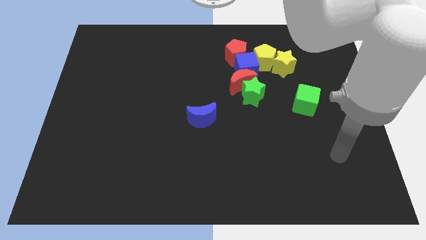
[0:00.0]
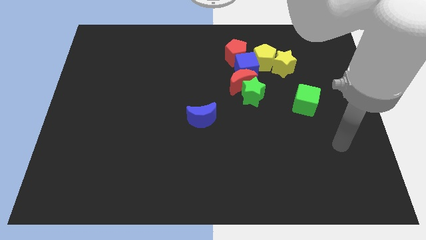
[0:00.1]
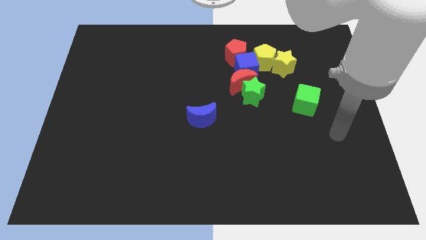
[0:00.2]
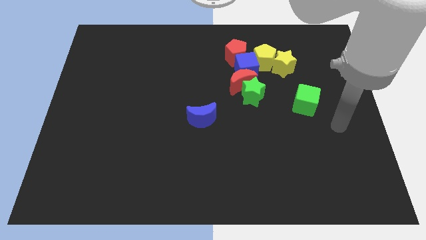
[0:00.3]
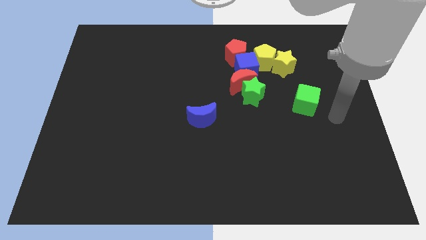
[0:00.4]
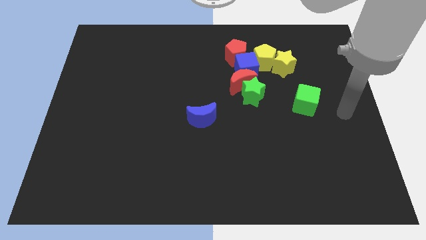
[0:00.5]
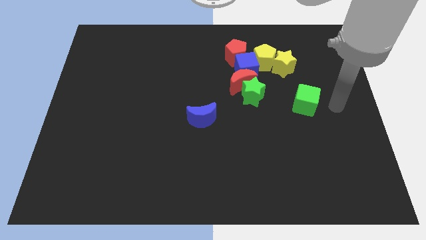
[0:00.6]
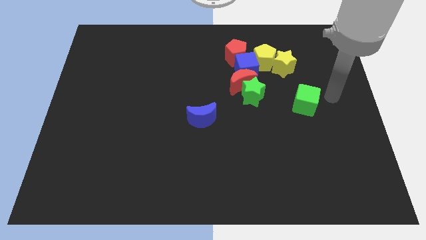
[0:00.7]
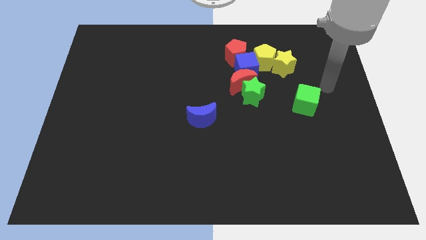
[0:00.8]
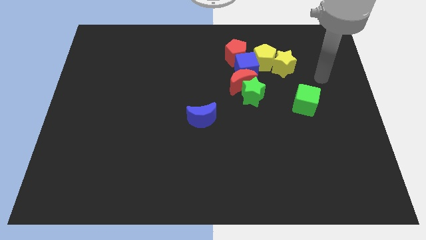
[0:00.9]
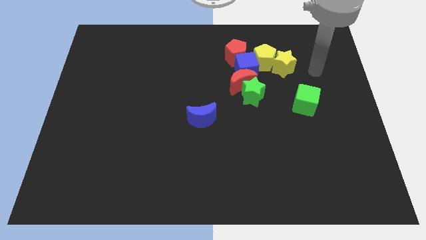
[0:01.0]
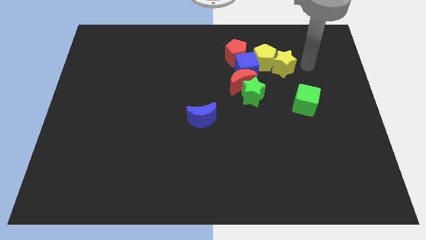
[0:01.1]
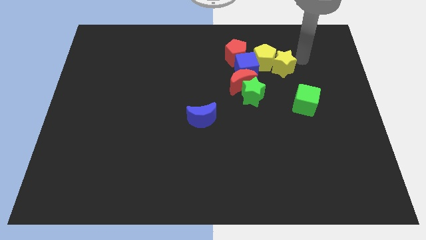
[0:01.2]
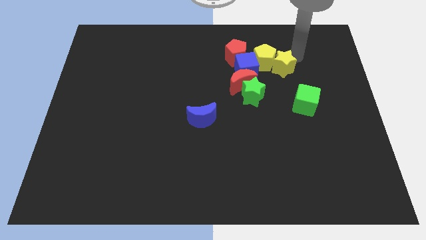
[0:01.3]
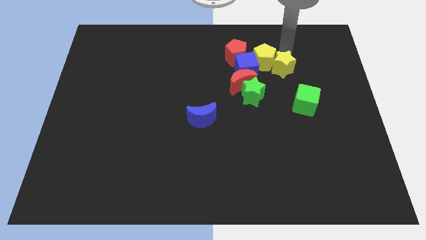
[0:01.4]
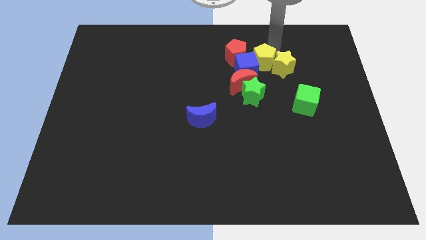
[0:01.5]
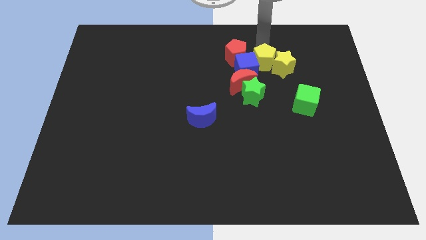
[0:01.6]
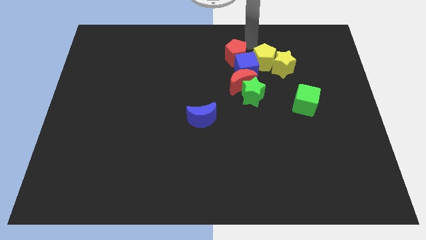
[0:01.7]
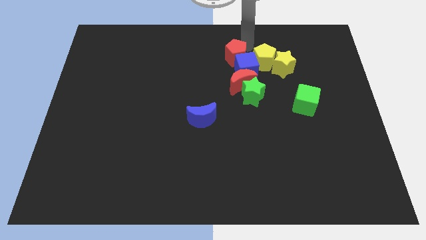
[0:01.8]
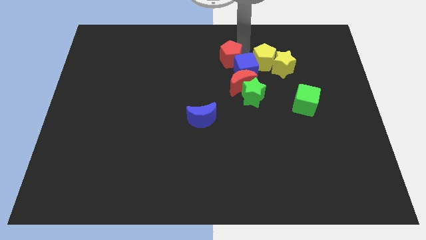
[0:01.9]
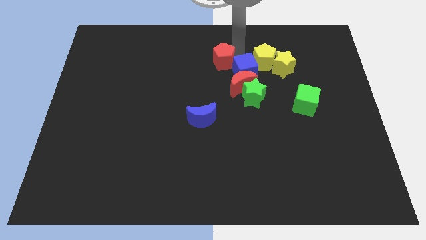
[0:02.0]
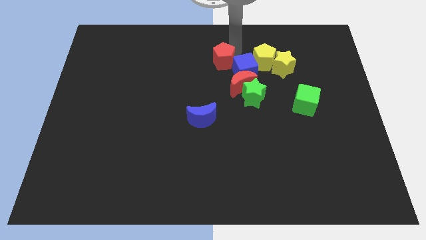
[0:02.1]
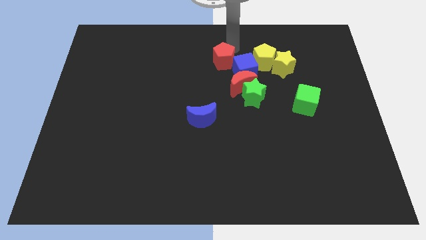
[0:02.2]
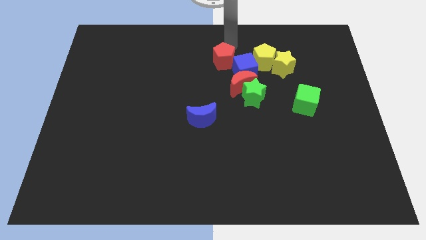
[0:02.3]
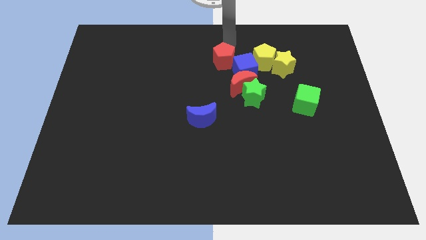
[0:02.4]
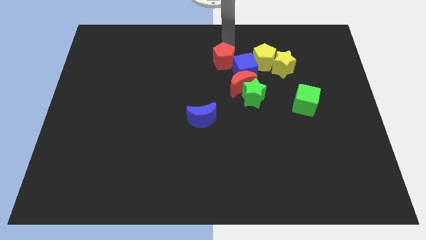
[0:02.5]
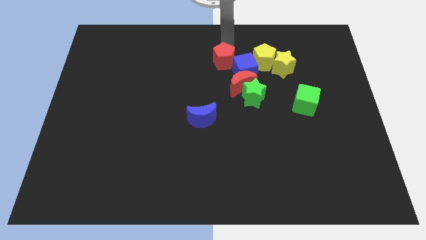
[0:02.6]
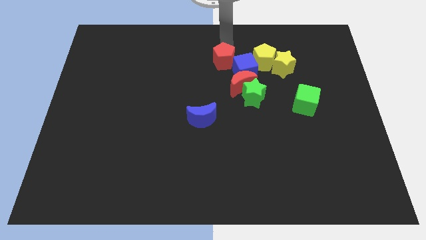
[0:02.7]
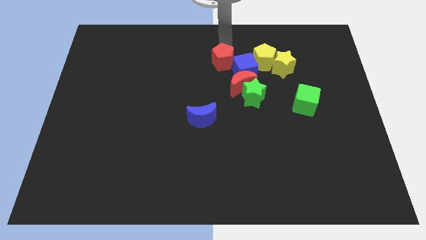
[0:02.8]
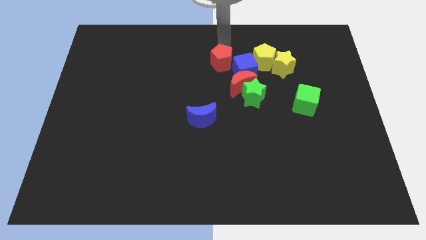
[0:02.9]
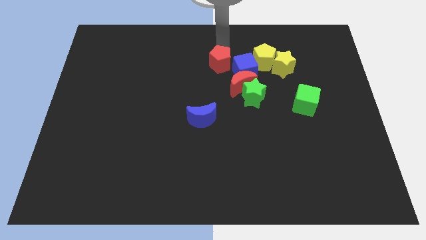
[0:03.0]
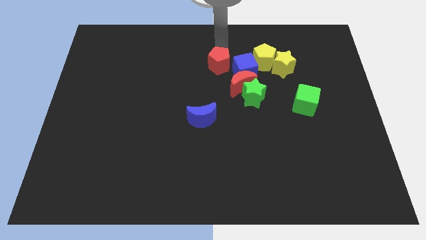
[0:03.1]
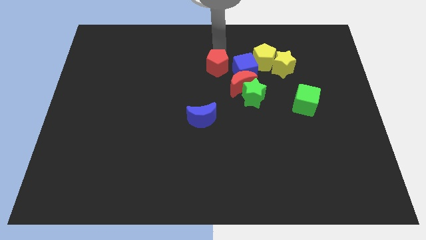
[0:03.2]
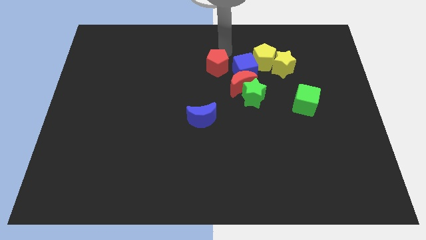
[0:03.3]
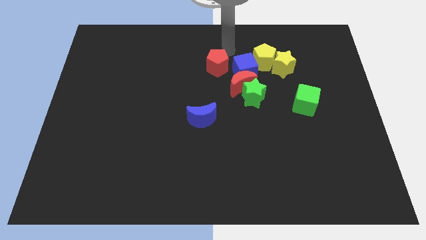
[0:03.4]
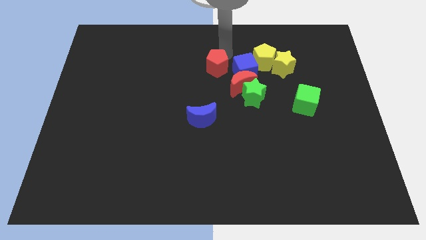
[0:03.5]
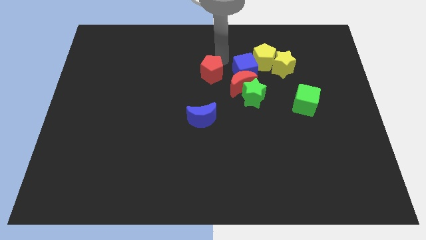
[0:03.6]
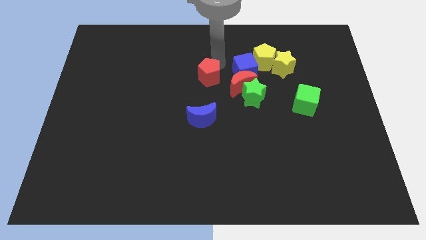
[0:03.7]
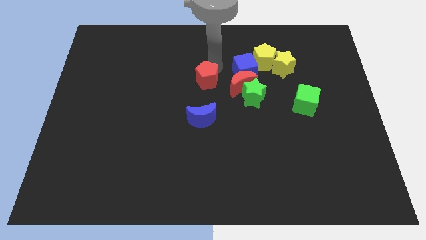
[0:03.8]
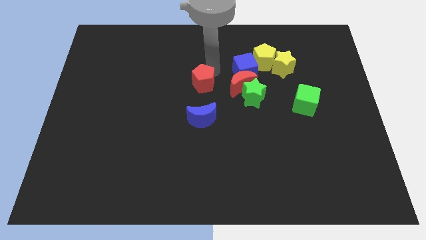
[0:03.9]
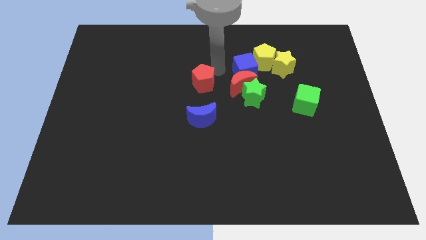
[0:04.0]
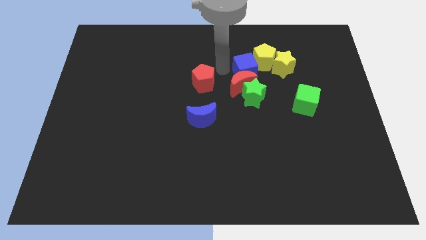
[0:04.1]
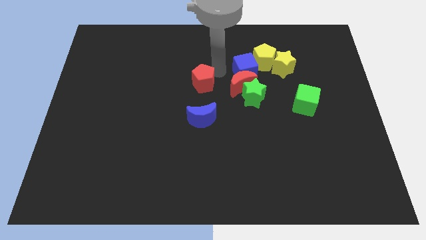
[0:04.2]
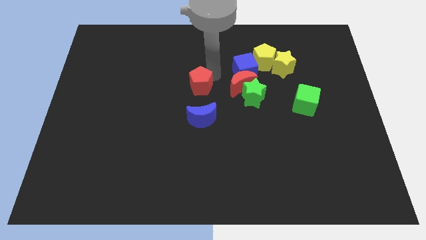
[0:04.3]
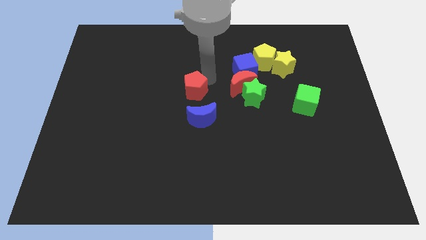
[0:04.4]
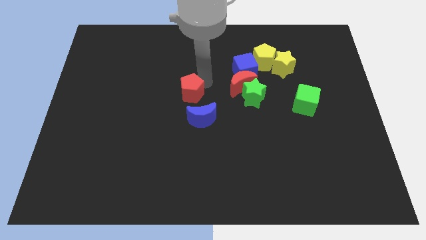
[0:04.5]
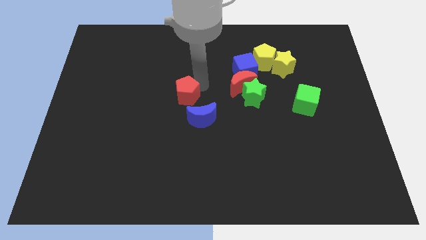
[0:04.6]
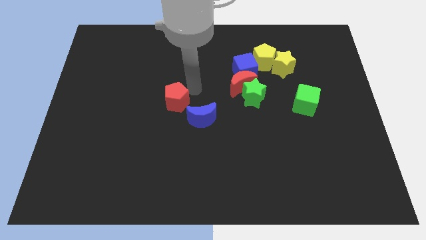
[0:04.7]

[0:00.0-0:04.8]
slide the red pentagon downwards and left diagonally

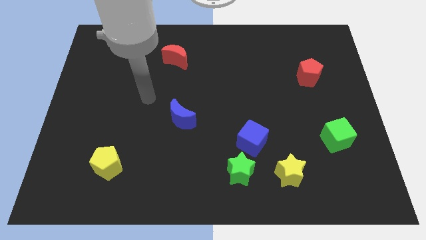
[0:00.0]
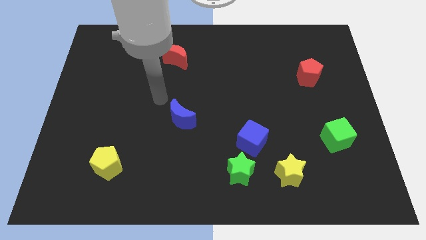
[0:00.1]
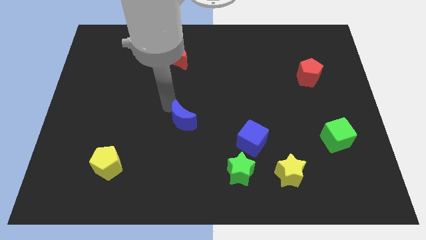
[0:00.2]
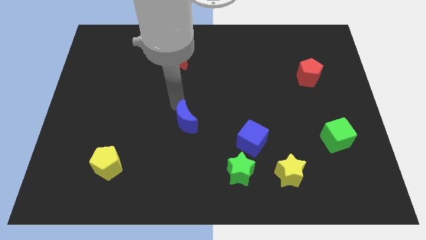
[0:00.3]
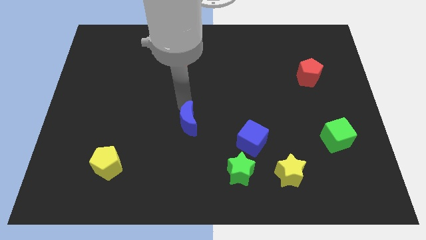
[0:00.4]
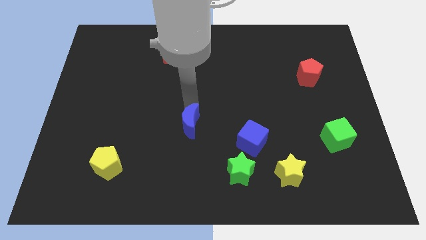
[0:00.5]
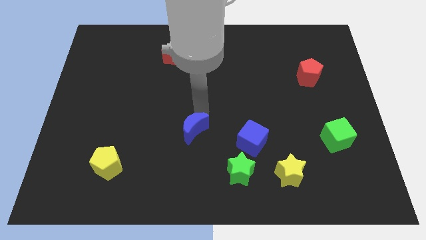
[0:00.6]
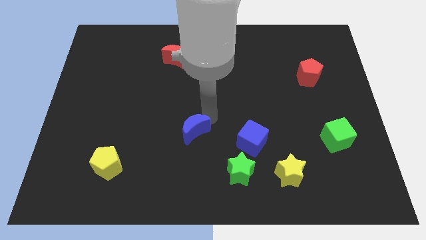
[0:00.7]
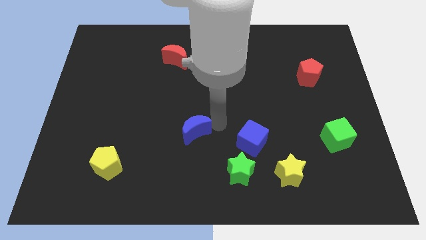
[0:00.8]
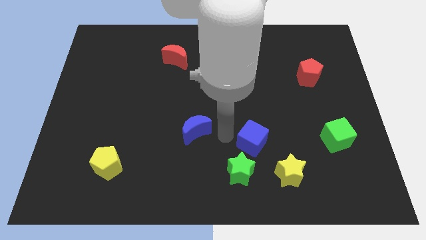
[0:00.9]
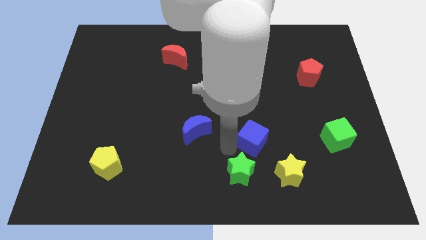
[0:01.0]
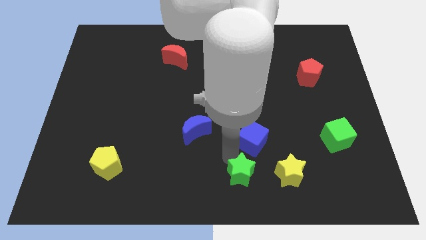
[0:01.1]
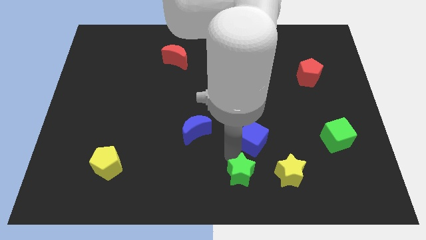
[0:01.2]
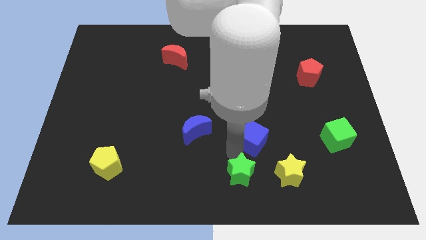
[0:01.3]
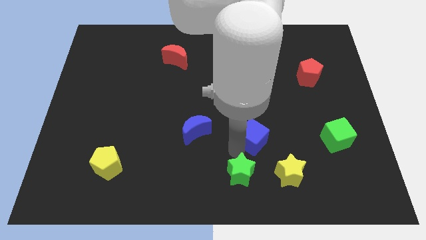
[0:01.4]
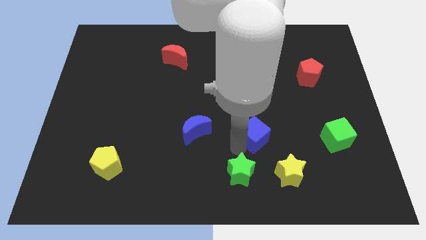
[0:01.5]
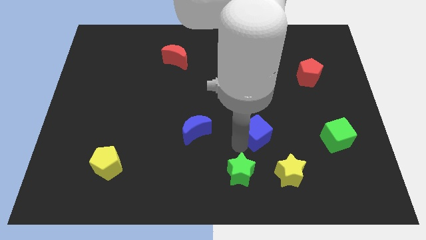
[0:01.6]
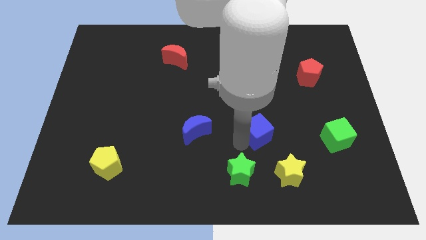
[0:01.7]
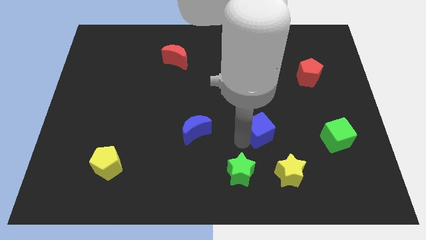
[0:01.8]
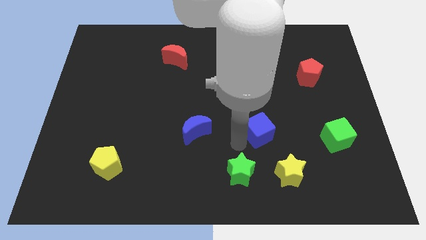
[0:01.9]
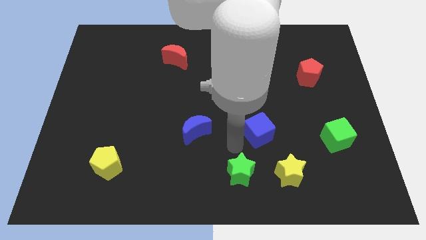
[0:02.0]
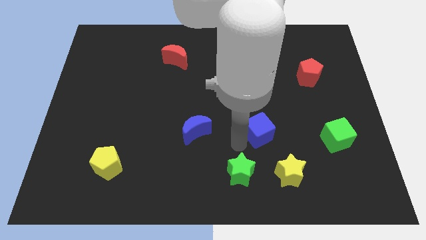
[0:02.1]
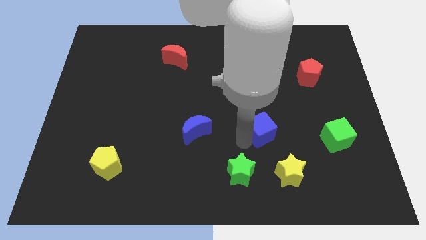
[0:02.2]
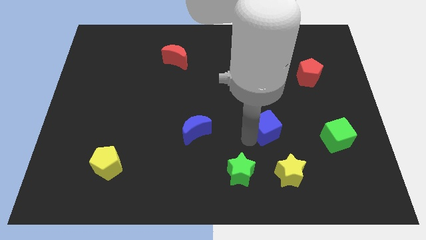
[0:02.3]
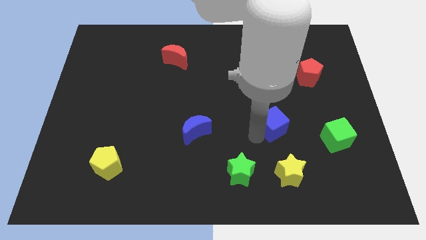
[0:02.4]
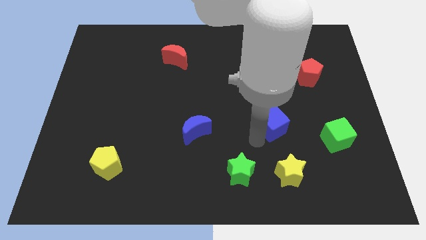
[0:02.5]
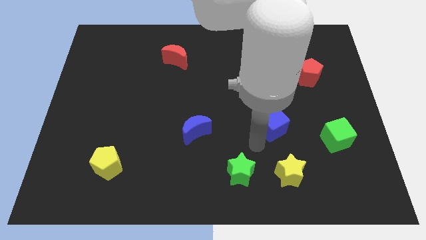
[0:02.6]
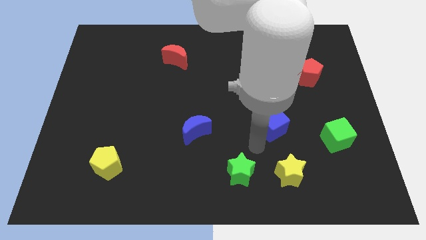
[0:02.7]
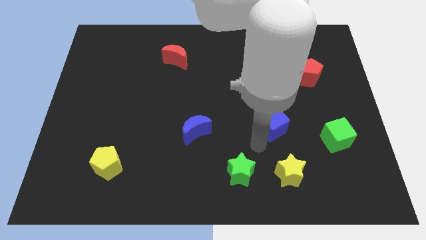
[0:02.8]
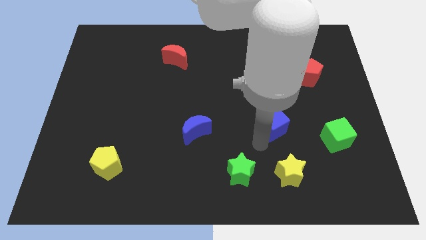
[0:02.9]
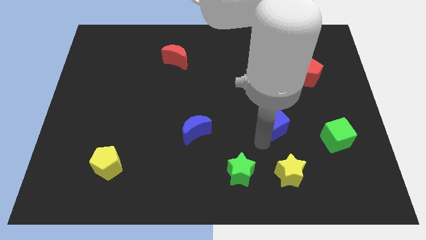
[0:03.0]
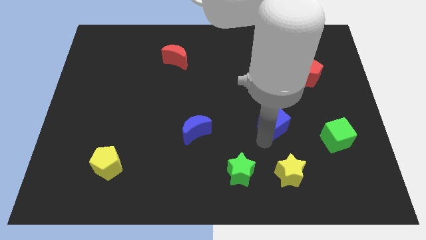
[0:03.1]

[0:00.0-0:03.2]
slightly slide the blue cube up and to the right diagonally
